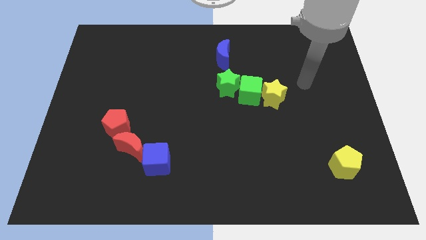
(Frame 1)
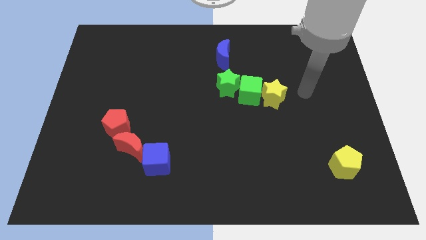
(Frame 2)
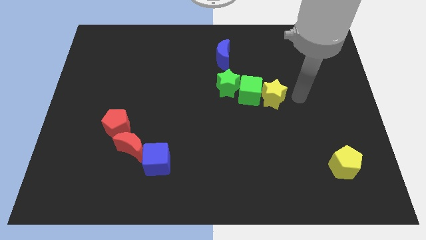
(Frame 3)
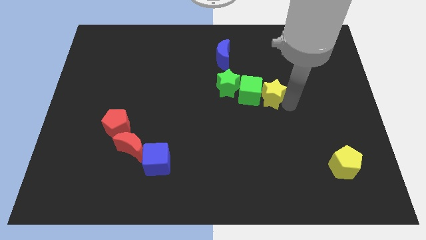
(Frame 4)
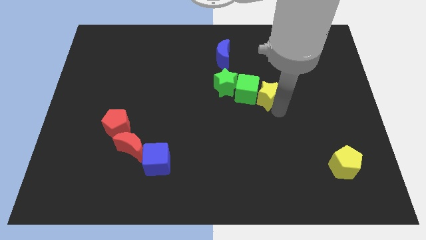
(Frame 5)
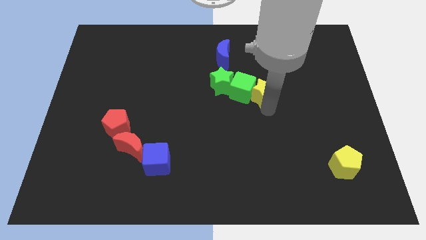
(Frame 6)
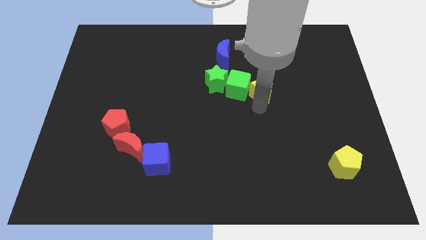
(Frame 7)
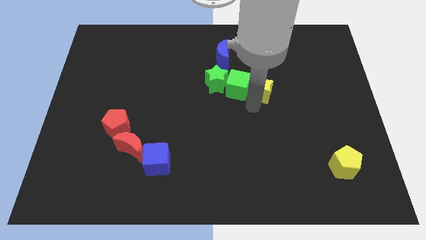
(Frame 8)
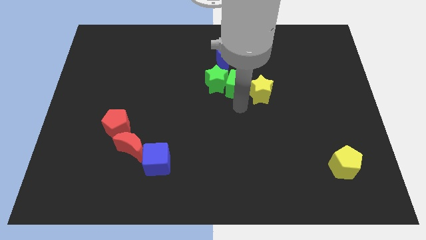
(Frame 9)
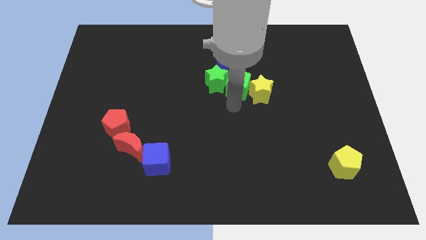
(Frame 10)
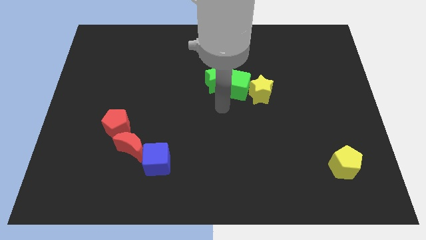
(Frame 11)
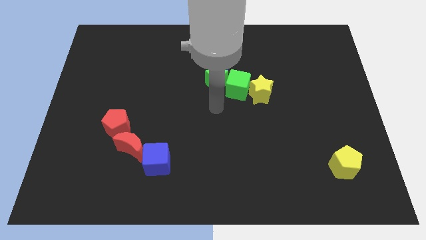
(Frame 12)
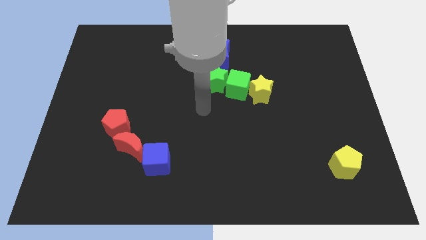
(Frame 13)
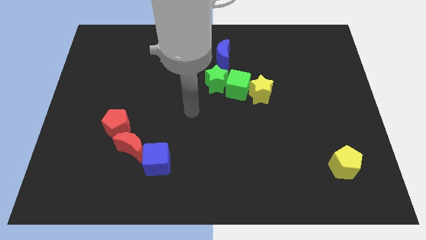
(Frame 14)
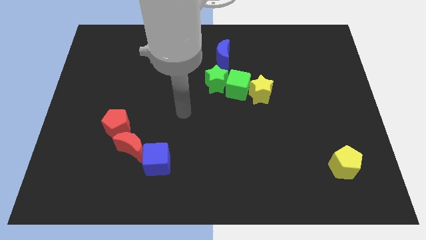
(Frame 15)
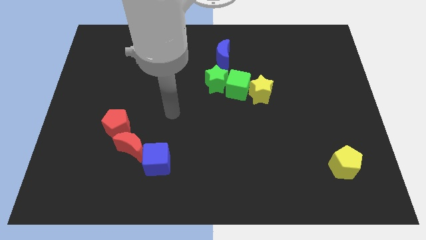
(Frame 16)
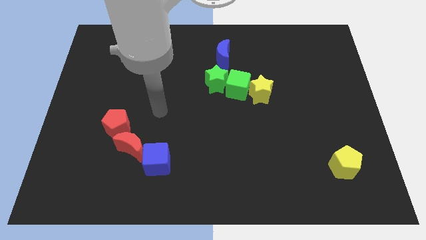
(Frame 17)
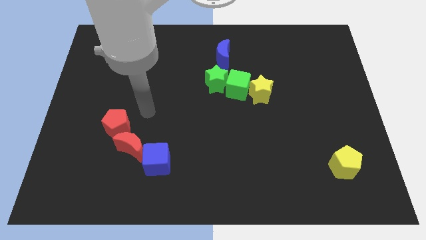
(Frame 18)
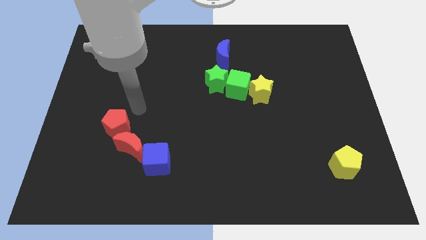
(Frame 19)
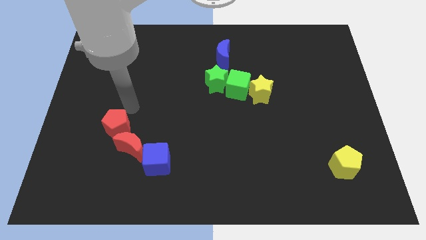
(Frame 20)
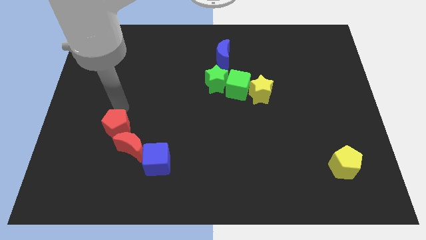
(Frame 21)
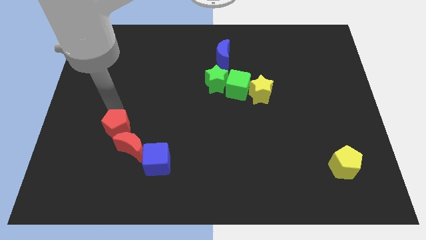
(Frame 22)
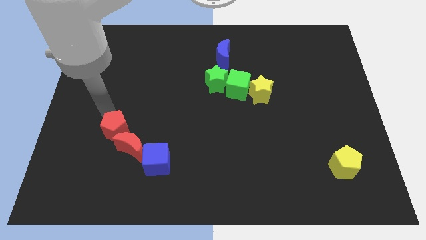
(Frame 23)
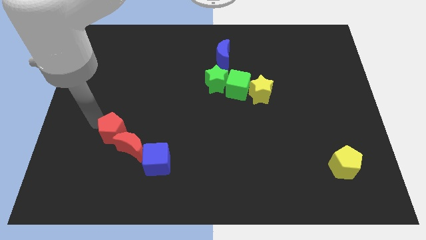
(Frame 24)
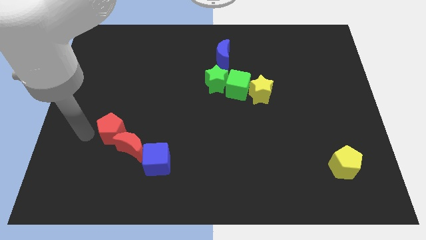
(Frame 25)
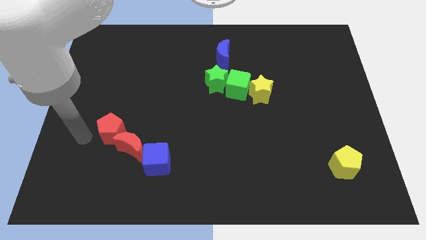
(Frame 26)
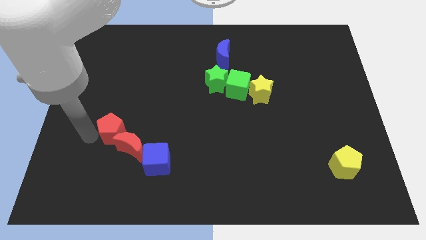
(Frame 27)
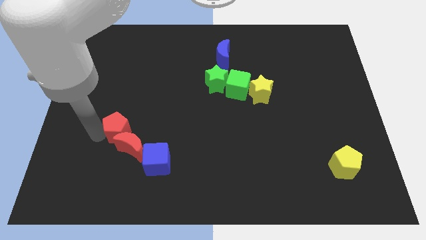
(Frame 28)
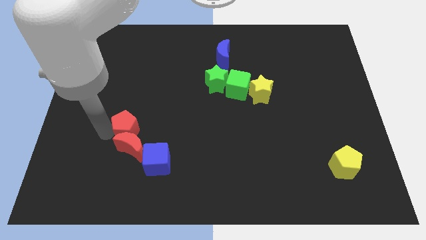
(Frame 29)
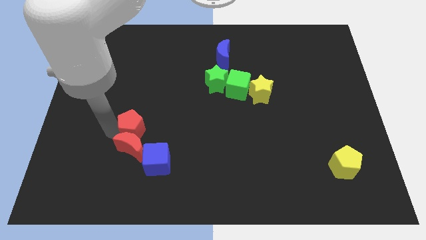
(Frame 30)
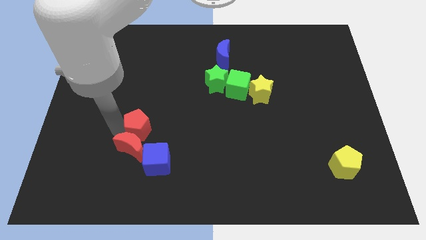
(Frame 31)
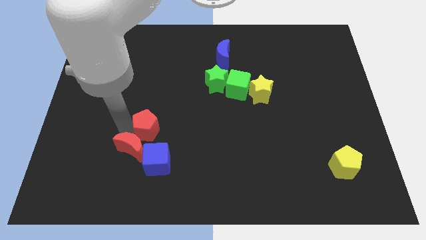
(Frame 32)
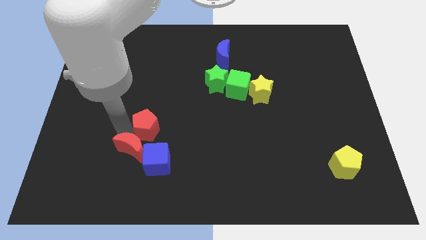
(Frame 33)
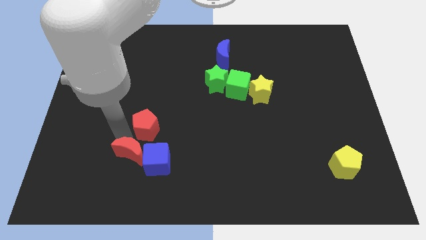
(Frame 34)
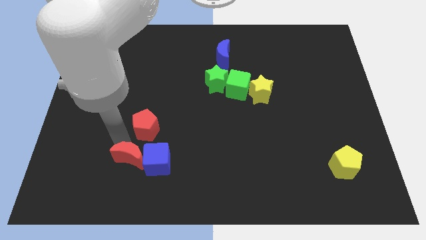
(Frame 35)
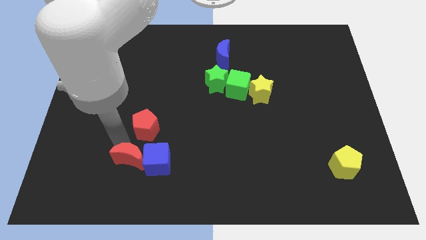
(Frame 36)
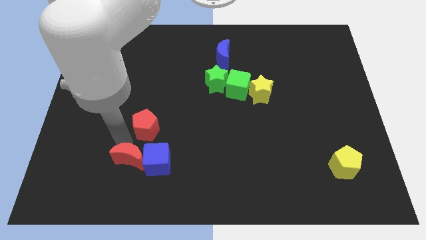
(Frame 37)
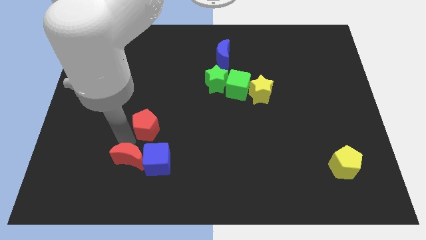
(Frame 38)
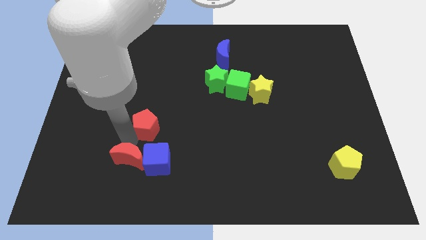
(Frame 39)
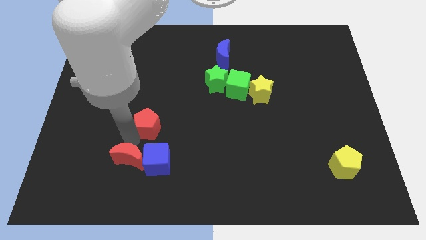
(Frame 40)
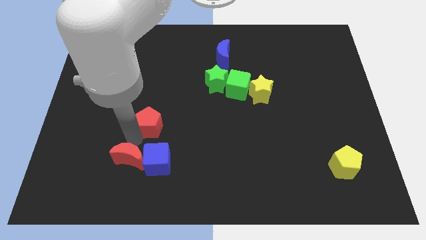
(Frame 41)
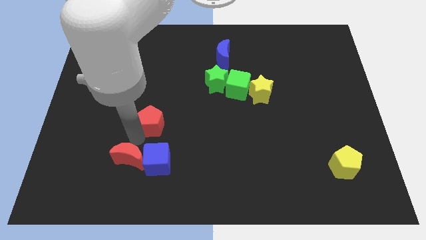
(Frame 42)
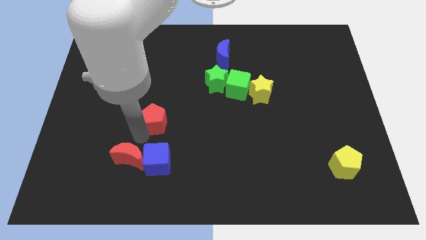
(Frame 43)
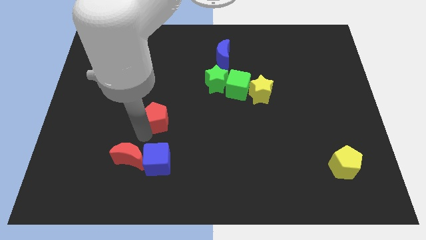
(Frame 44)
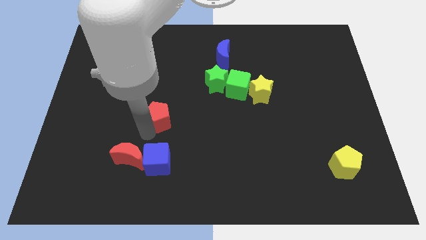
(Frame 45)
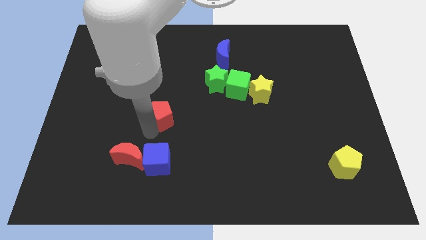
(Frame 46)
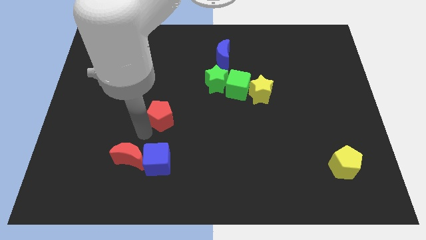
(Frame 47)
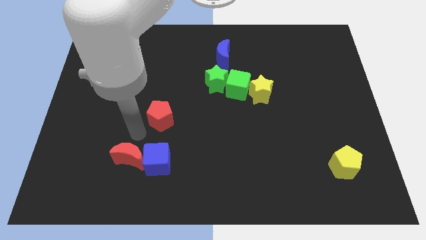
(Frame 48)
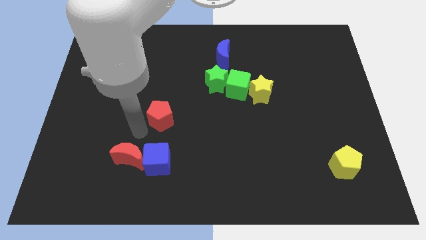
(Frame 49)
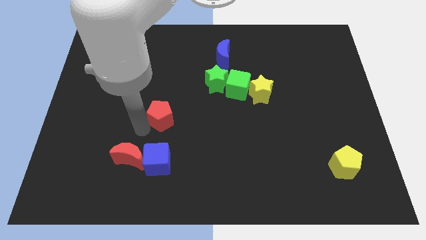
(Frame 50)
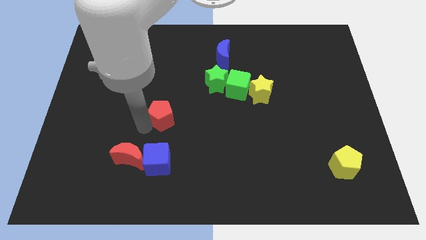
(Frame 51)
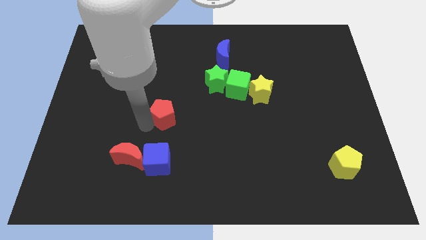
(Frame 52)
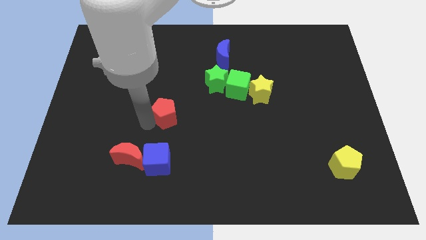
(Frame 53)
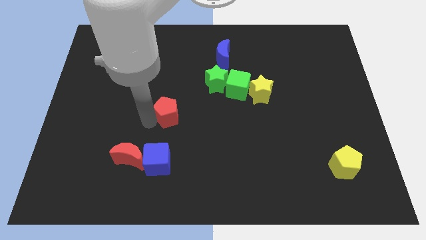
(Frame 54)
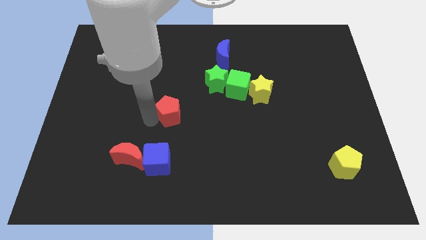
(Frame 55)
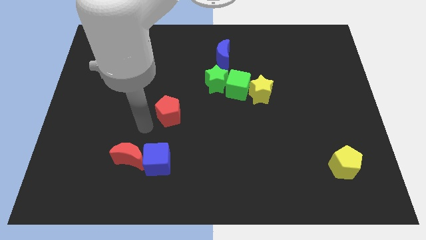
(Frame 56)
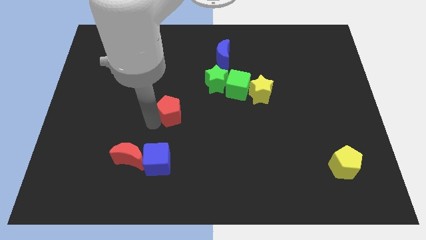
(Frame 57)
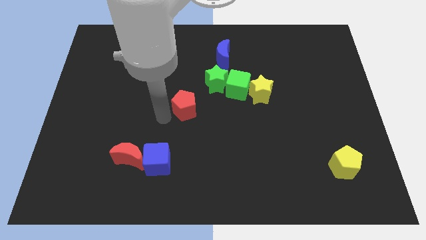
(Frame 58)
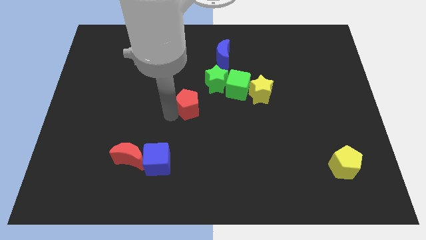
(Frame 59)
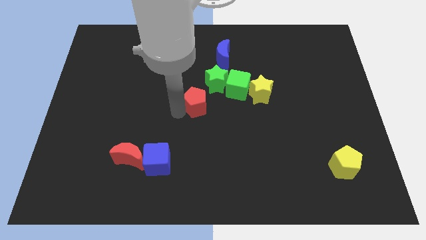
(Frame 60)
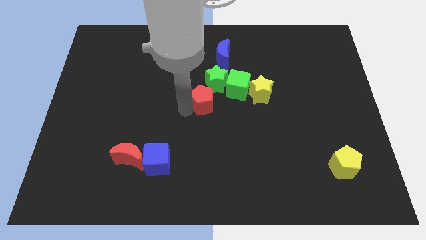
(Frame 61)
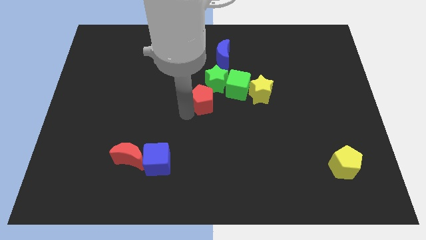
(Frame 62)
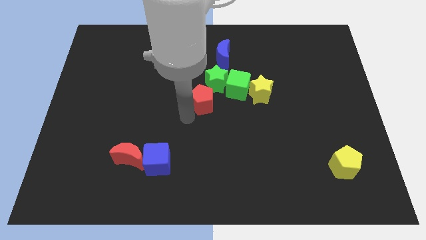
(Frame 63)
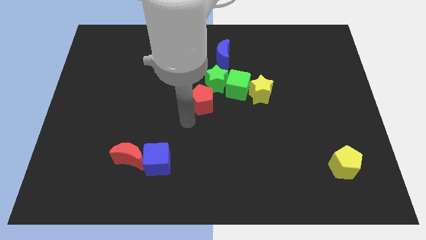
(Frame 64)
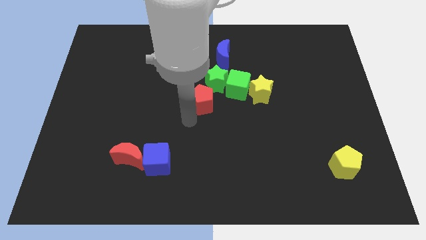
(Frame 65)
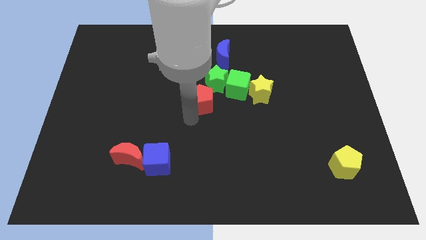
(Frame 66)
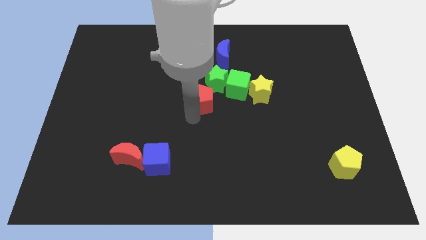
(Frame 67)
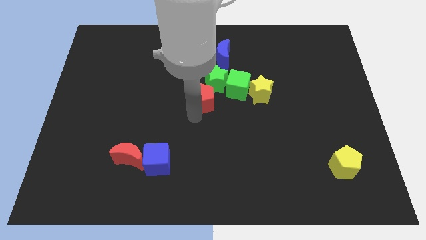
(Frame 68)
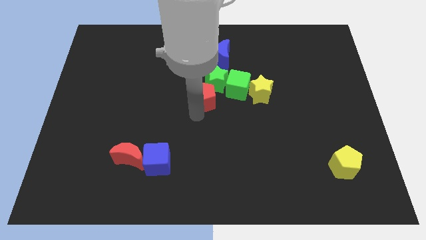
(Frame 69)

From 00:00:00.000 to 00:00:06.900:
slide the red pentagon close to the green star

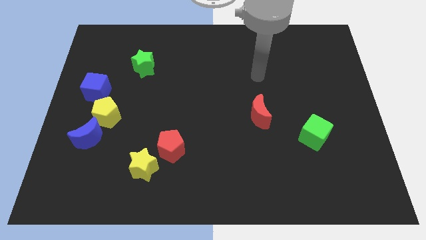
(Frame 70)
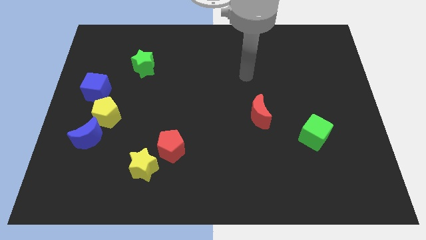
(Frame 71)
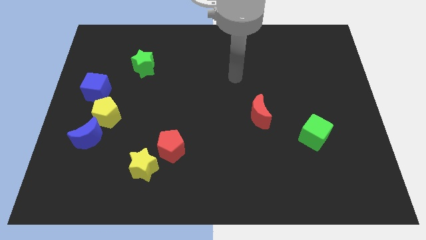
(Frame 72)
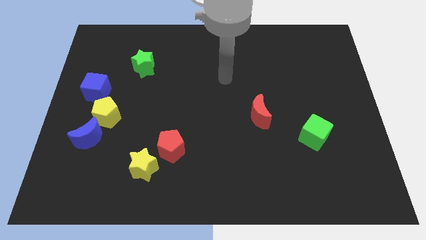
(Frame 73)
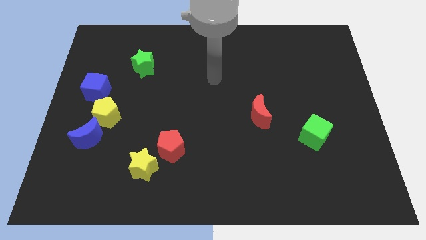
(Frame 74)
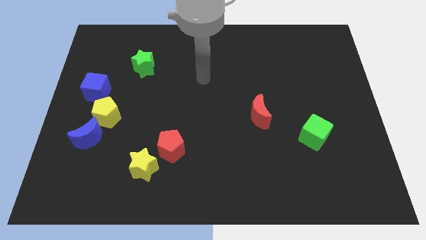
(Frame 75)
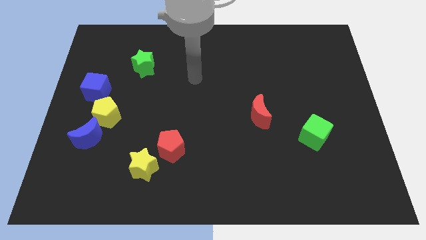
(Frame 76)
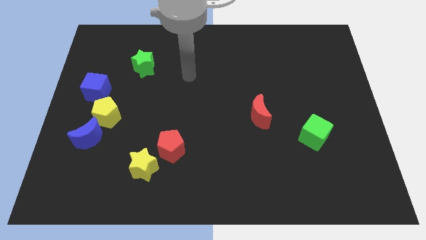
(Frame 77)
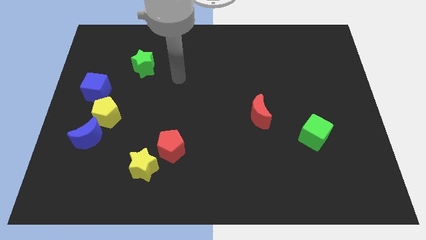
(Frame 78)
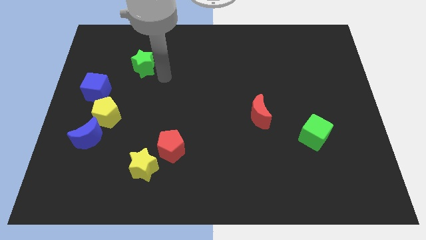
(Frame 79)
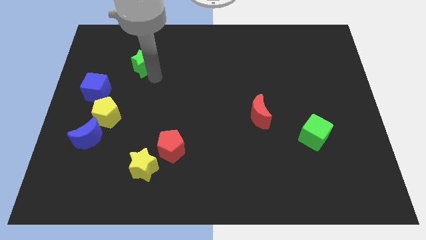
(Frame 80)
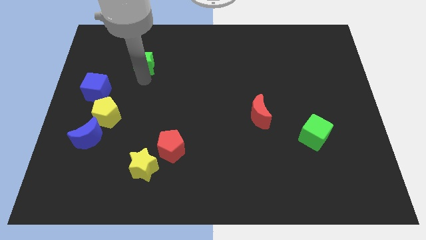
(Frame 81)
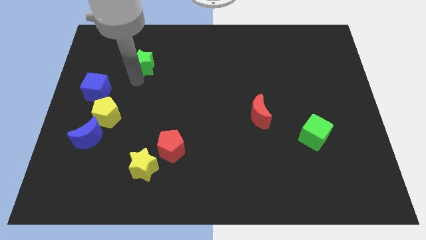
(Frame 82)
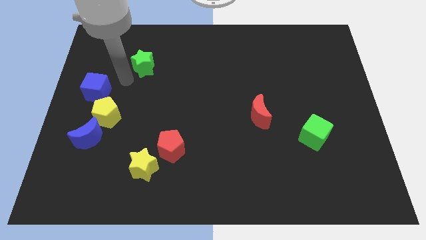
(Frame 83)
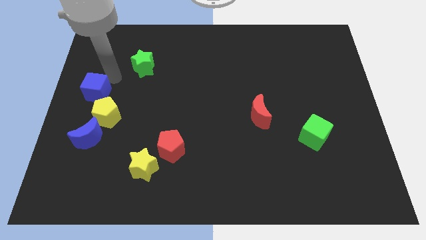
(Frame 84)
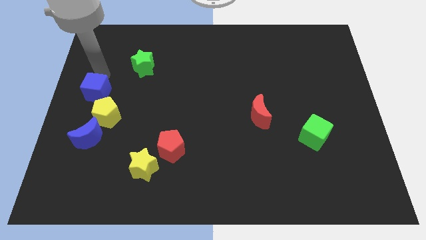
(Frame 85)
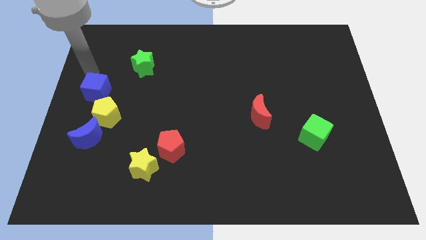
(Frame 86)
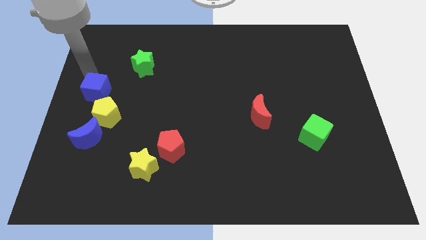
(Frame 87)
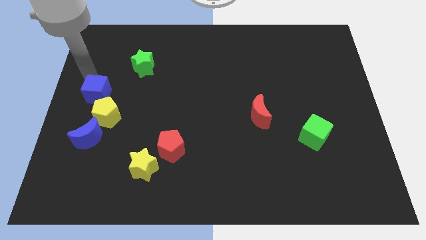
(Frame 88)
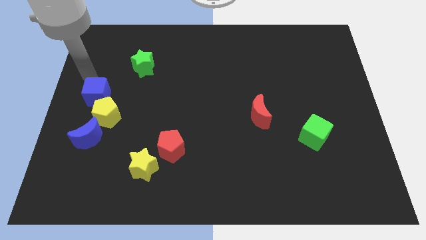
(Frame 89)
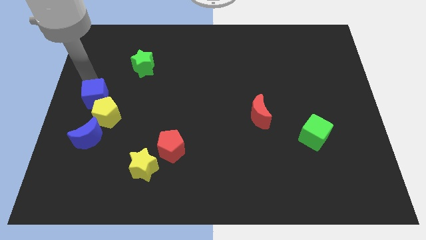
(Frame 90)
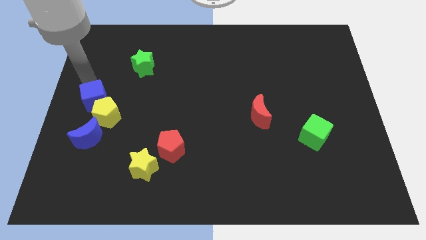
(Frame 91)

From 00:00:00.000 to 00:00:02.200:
put the blue cube next to the yellow pentagon
